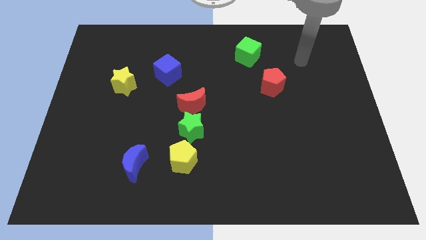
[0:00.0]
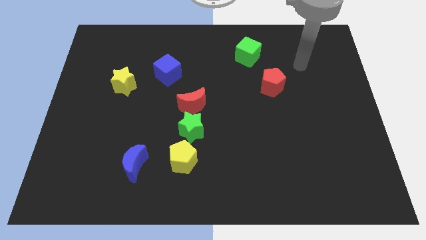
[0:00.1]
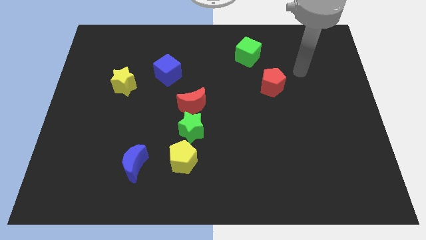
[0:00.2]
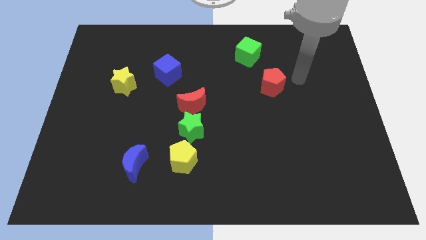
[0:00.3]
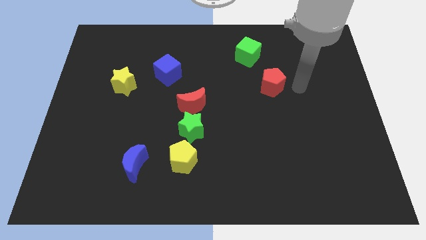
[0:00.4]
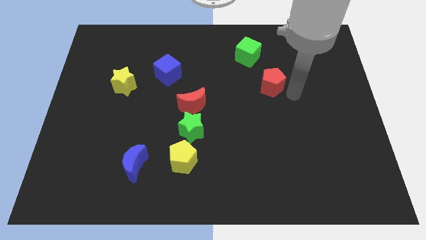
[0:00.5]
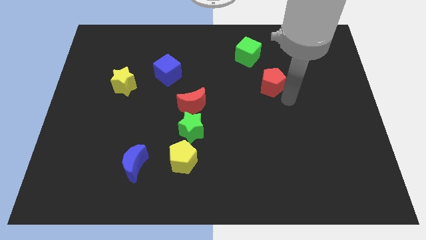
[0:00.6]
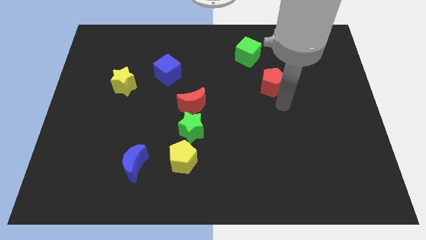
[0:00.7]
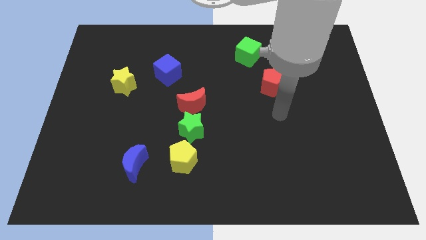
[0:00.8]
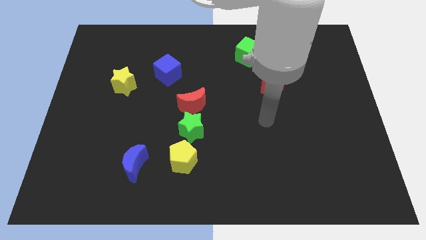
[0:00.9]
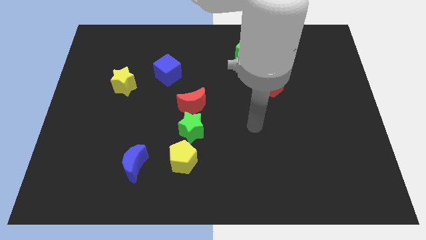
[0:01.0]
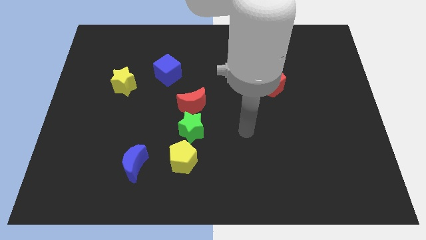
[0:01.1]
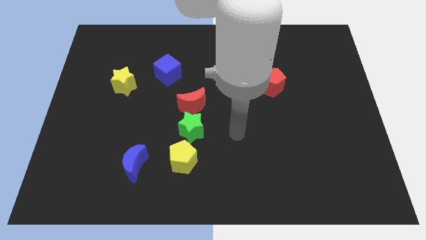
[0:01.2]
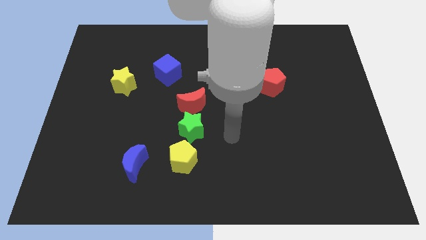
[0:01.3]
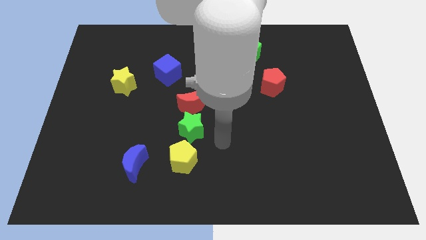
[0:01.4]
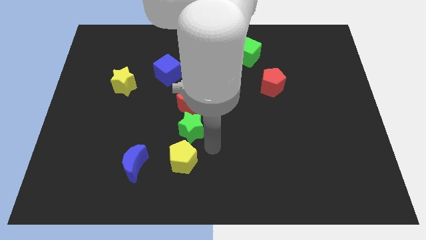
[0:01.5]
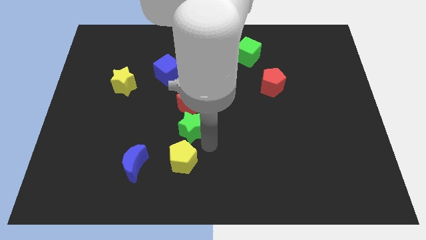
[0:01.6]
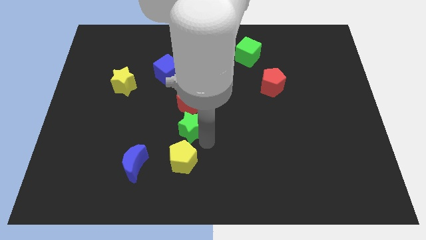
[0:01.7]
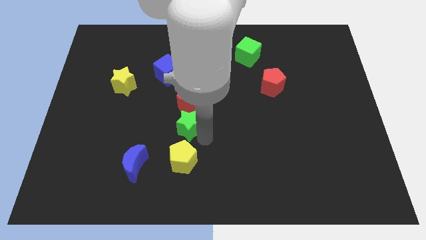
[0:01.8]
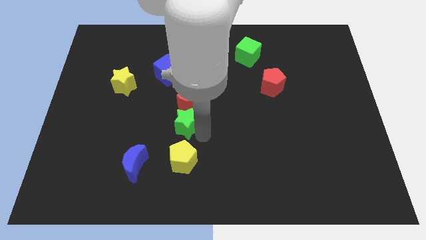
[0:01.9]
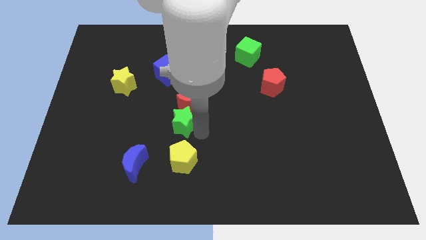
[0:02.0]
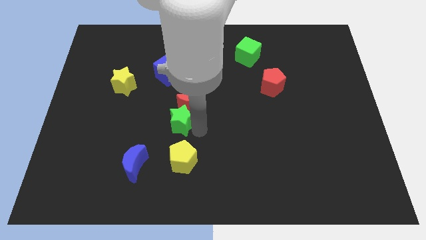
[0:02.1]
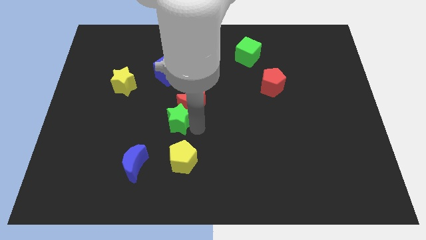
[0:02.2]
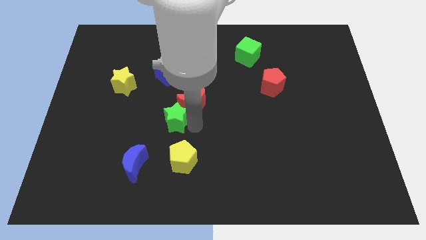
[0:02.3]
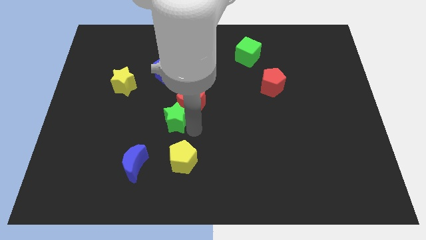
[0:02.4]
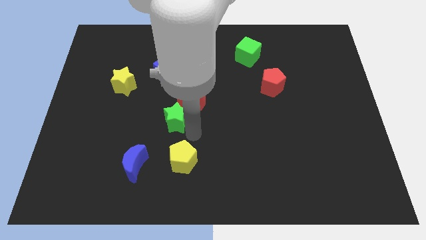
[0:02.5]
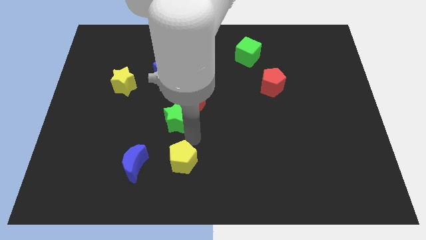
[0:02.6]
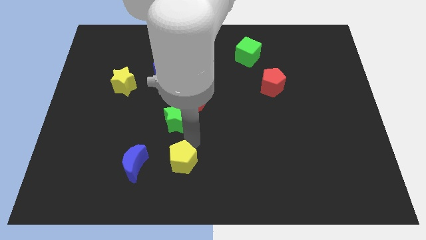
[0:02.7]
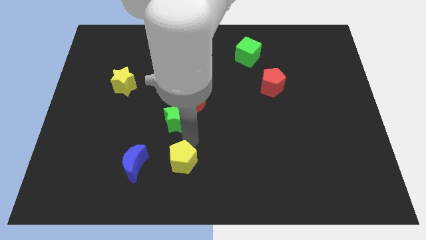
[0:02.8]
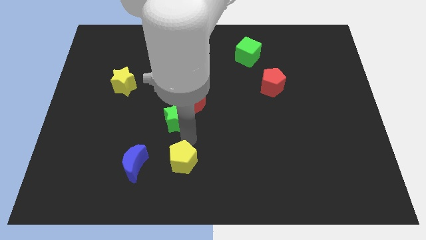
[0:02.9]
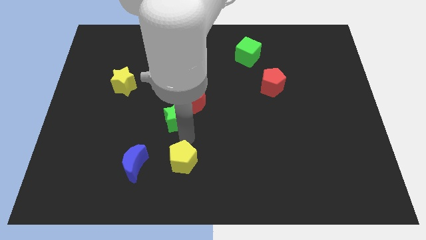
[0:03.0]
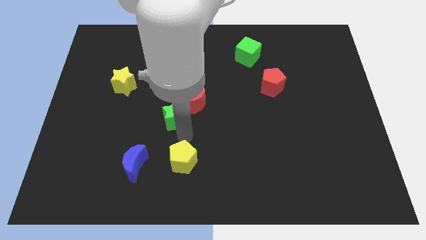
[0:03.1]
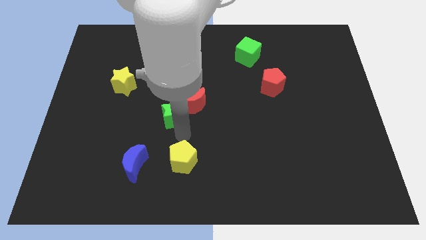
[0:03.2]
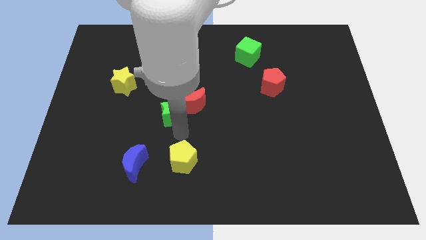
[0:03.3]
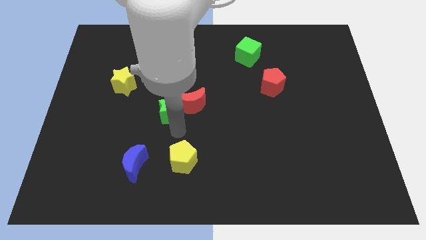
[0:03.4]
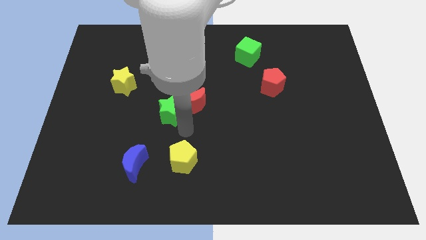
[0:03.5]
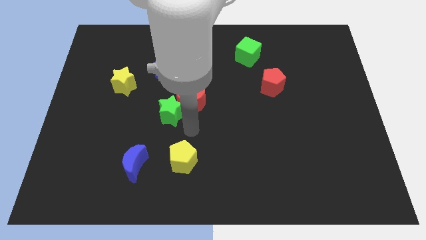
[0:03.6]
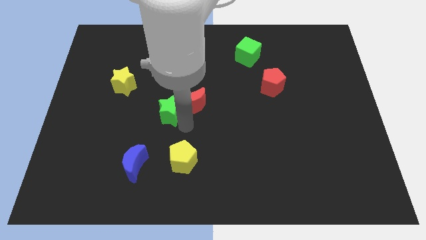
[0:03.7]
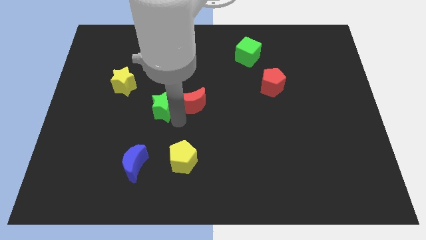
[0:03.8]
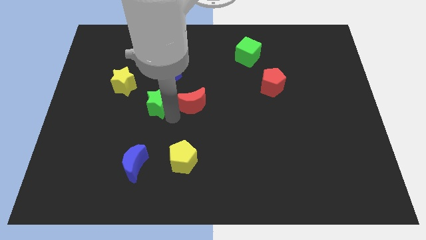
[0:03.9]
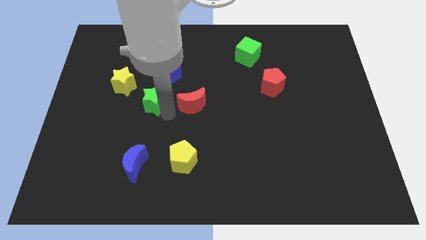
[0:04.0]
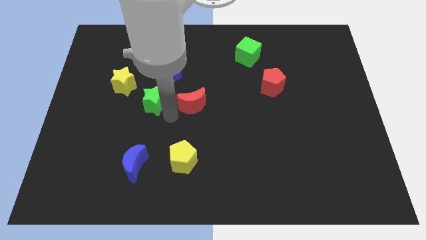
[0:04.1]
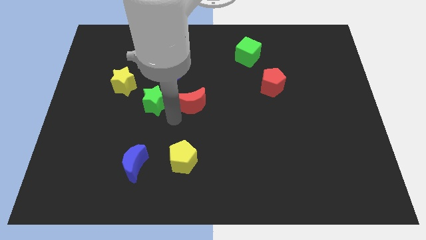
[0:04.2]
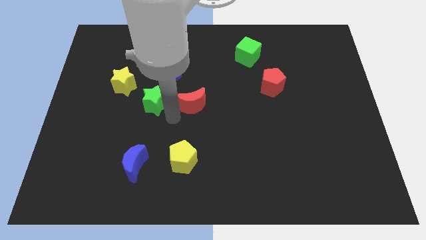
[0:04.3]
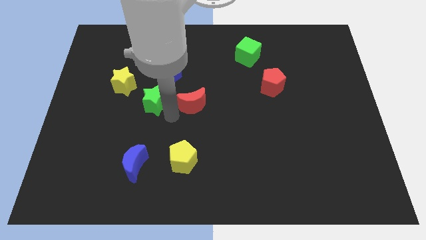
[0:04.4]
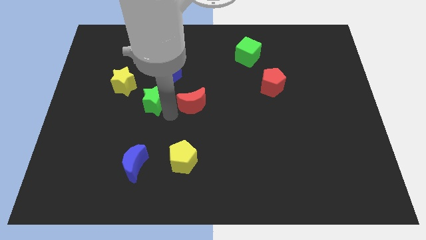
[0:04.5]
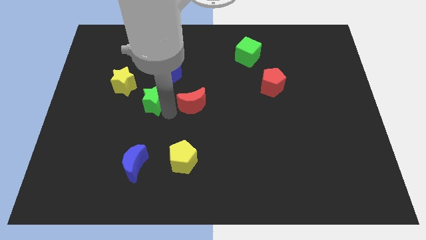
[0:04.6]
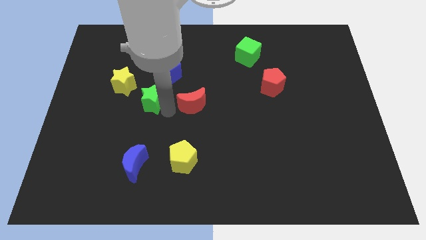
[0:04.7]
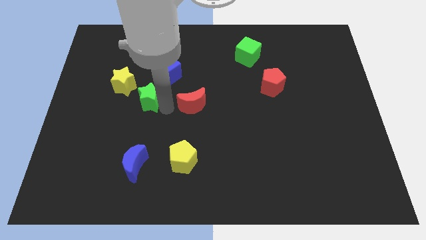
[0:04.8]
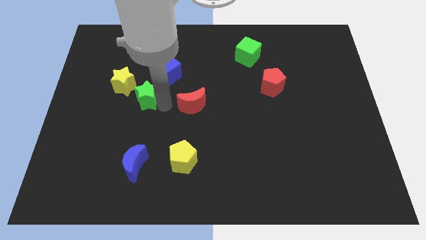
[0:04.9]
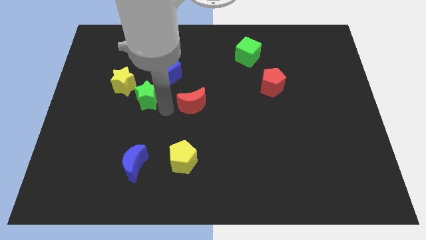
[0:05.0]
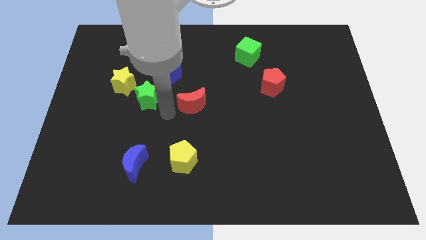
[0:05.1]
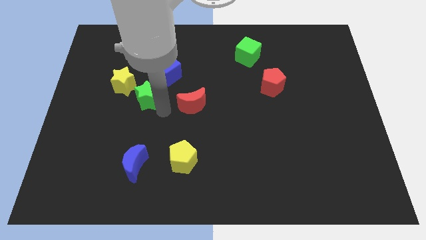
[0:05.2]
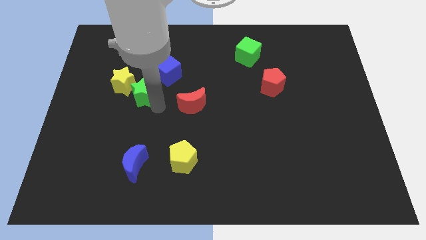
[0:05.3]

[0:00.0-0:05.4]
put the green star next to the yellow star

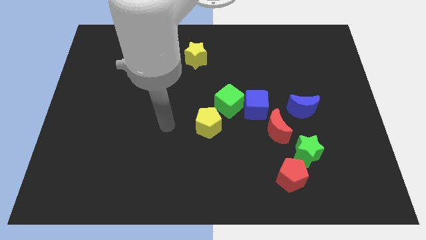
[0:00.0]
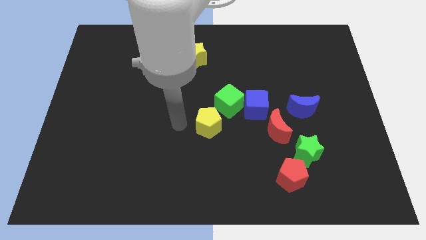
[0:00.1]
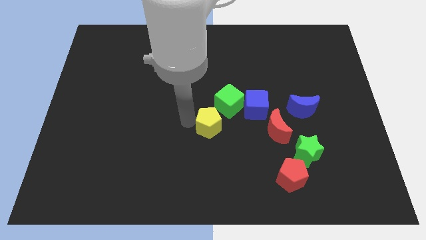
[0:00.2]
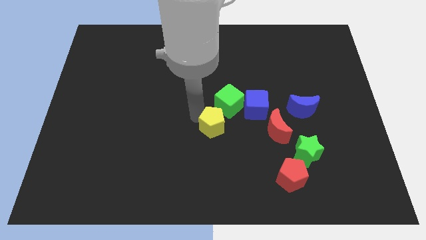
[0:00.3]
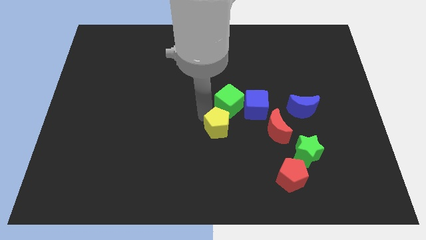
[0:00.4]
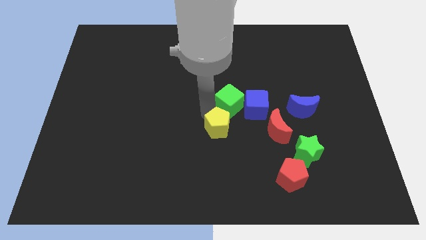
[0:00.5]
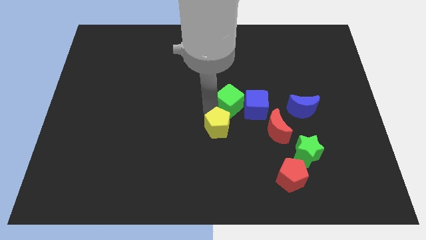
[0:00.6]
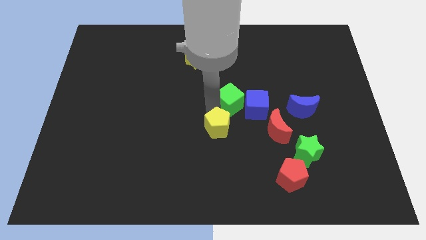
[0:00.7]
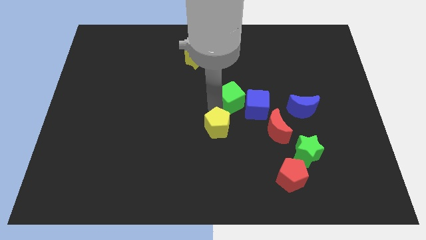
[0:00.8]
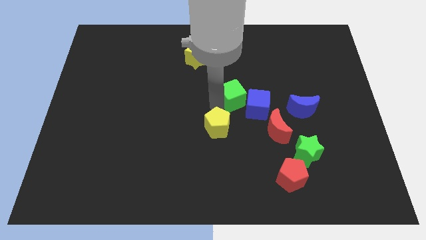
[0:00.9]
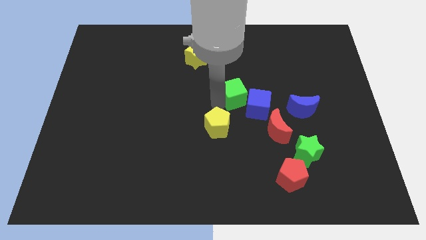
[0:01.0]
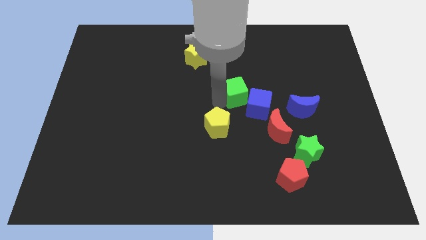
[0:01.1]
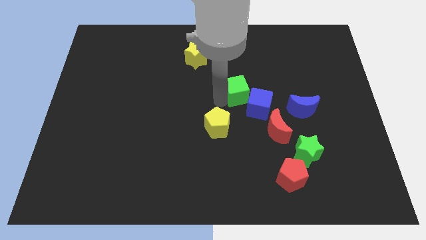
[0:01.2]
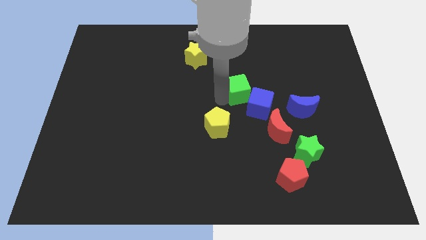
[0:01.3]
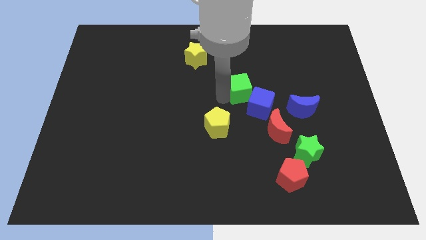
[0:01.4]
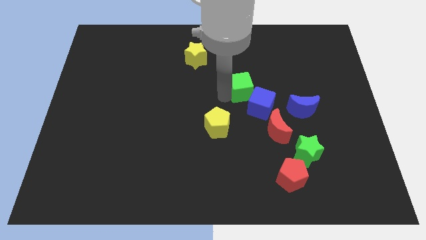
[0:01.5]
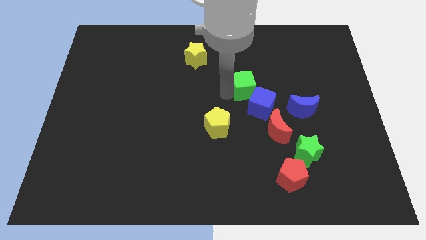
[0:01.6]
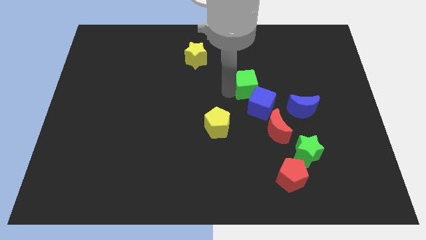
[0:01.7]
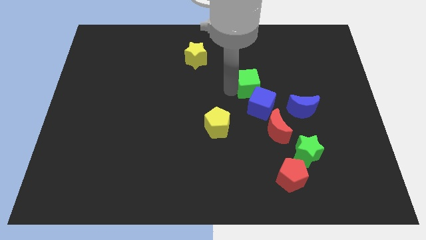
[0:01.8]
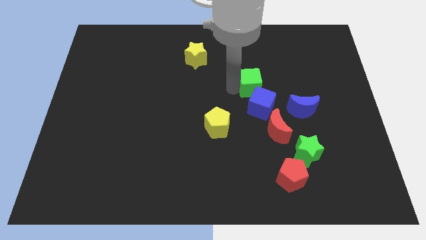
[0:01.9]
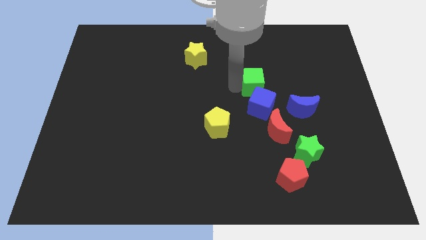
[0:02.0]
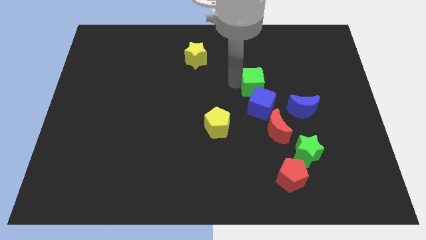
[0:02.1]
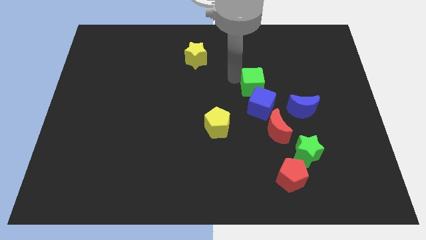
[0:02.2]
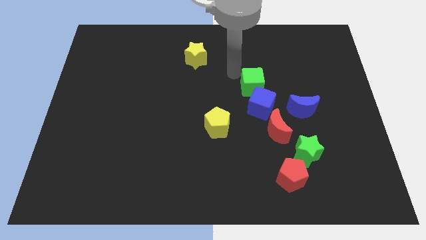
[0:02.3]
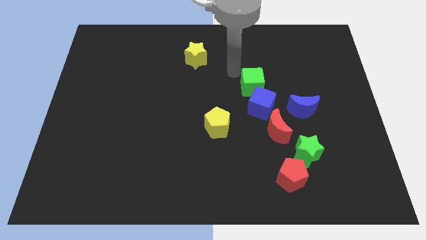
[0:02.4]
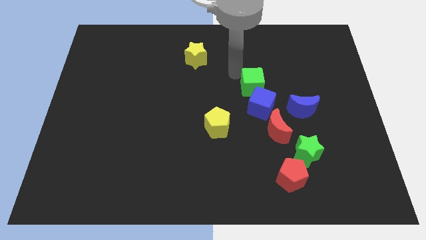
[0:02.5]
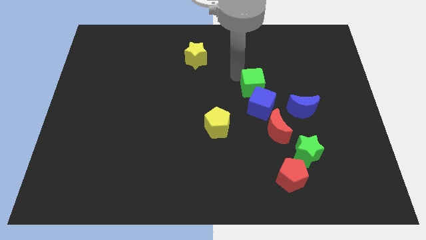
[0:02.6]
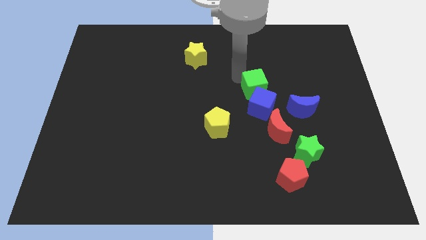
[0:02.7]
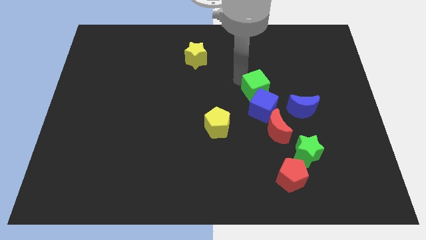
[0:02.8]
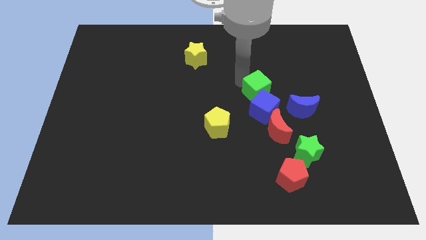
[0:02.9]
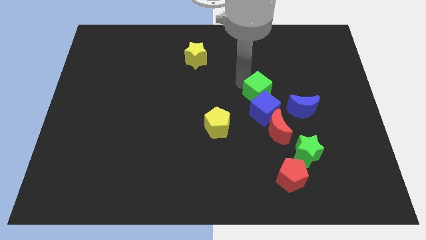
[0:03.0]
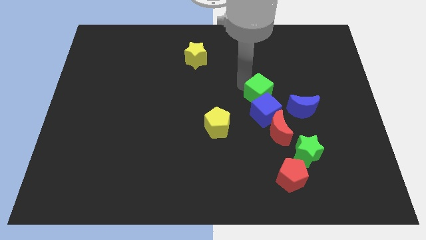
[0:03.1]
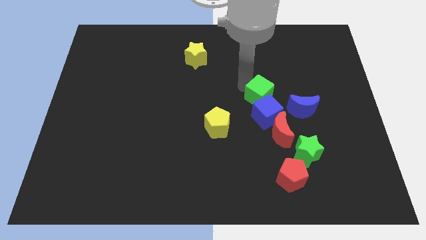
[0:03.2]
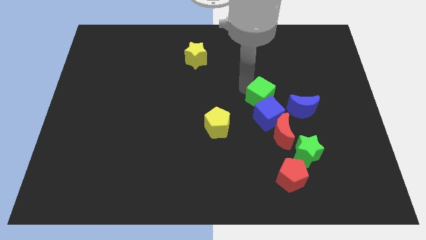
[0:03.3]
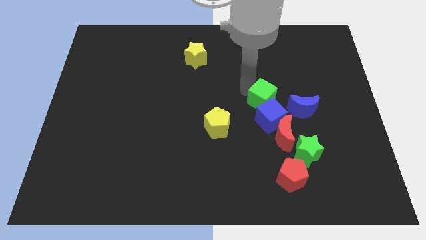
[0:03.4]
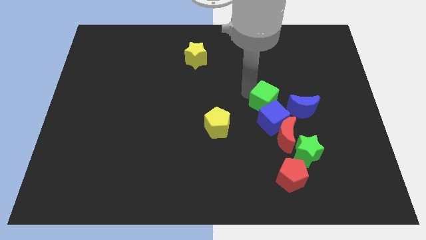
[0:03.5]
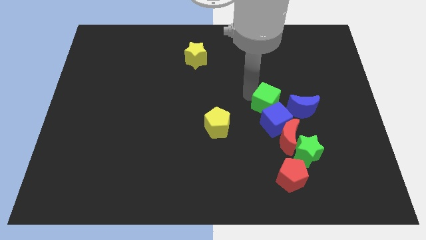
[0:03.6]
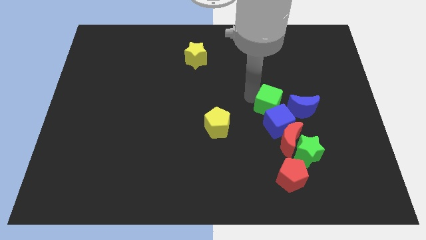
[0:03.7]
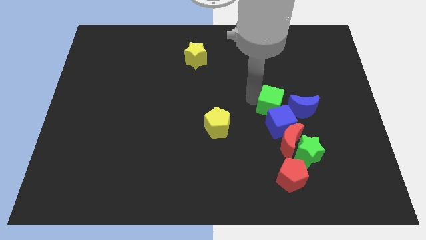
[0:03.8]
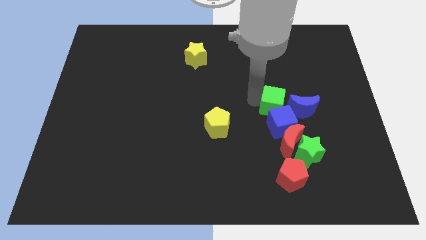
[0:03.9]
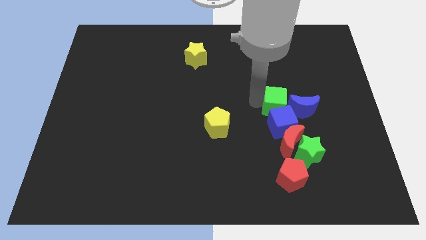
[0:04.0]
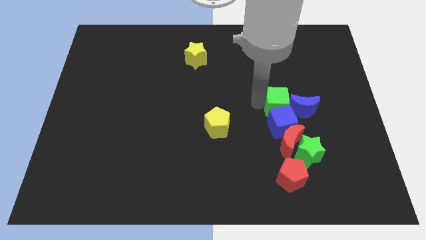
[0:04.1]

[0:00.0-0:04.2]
push the green cube next to the blue moon
